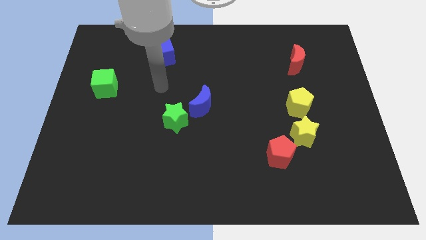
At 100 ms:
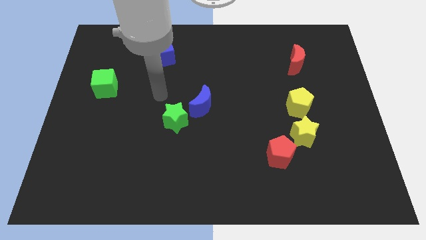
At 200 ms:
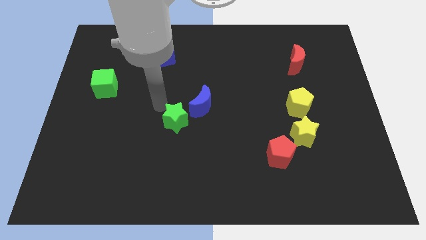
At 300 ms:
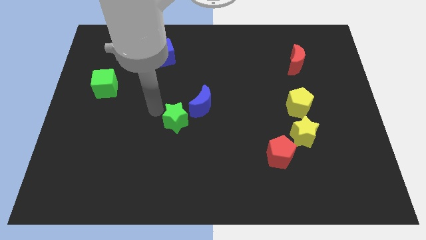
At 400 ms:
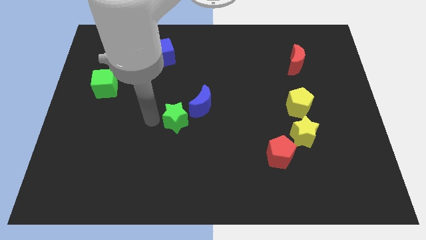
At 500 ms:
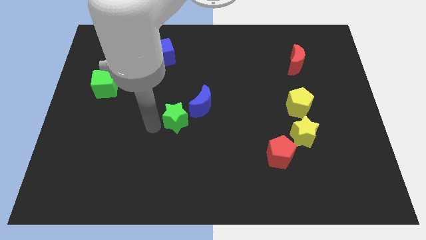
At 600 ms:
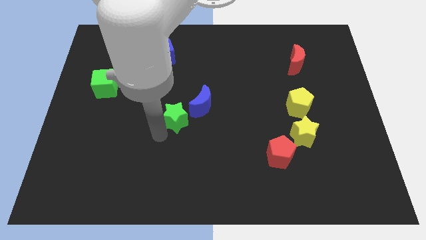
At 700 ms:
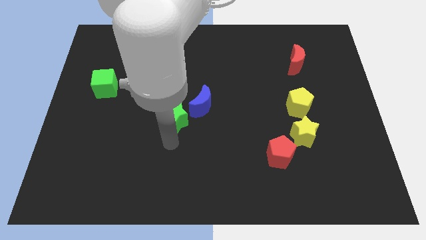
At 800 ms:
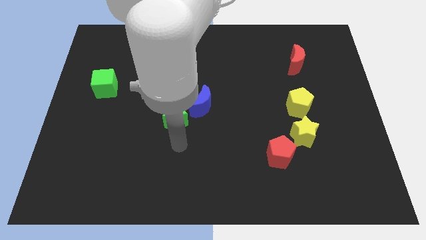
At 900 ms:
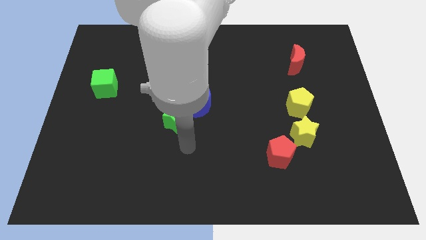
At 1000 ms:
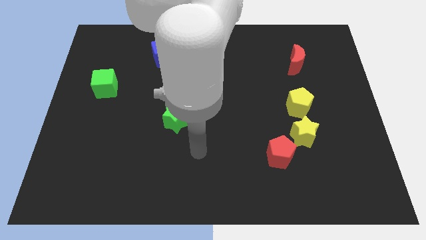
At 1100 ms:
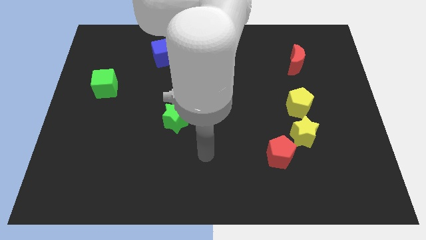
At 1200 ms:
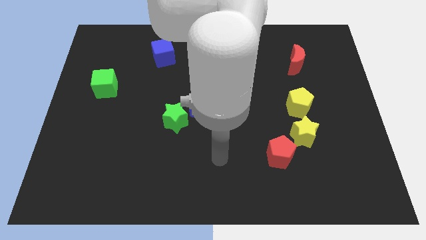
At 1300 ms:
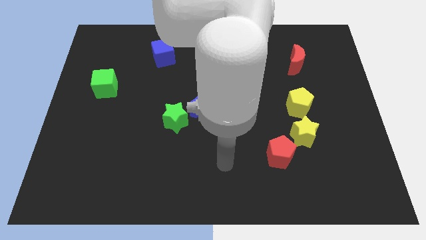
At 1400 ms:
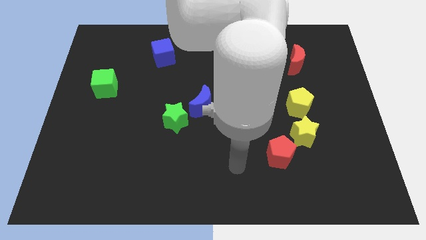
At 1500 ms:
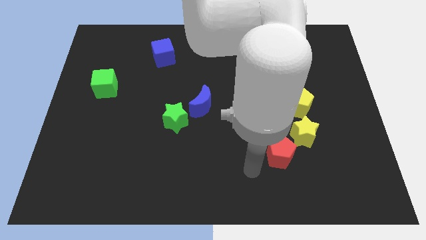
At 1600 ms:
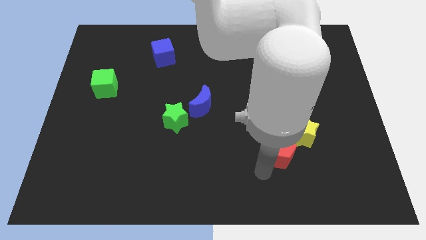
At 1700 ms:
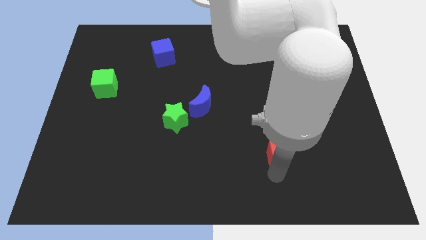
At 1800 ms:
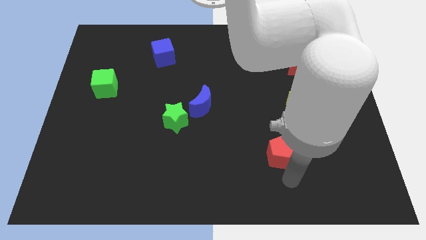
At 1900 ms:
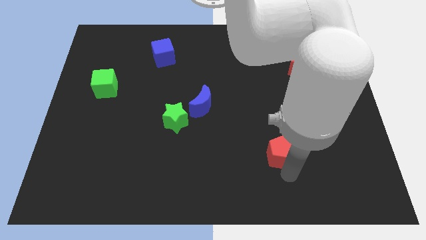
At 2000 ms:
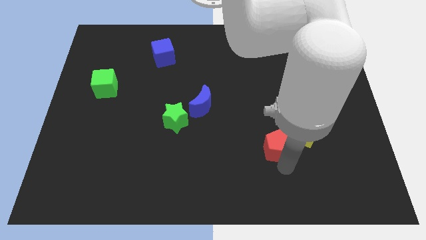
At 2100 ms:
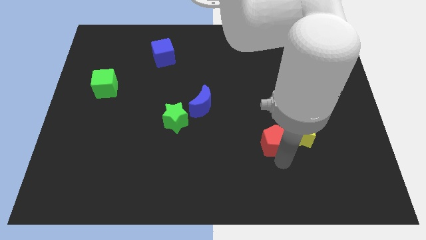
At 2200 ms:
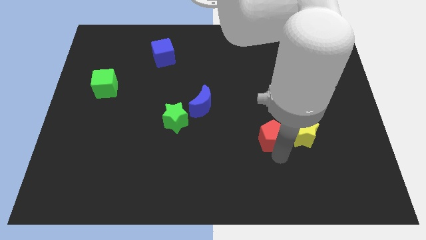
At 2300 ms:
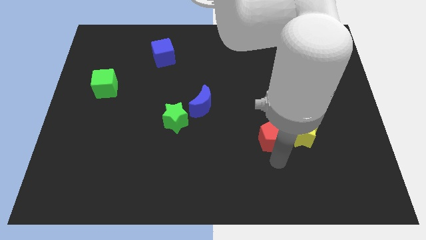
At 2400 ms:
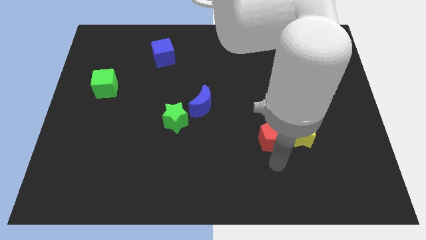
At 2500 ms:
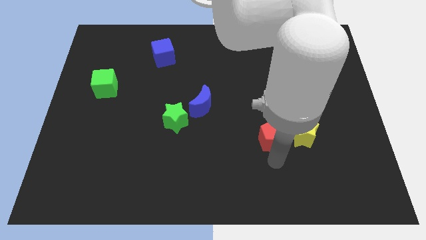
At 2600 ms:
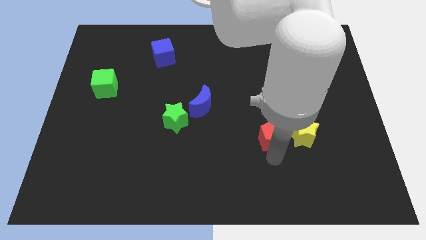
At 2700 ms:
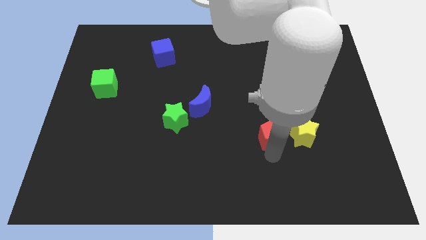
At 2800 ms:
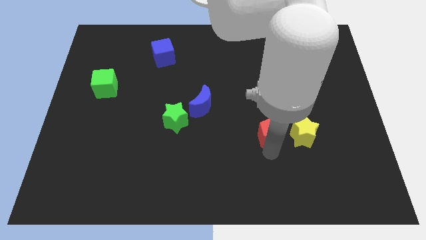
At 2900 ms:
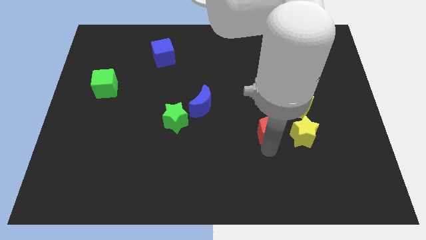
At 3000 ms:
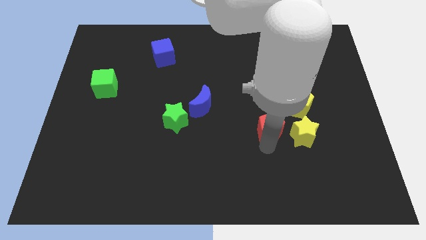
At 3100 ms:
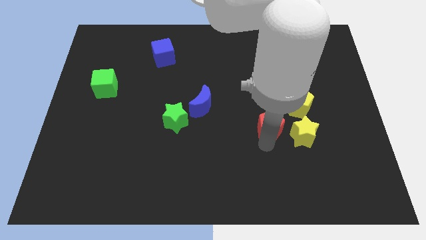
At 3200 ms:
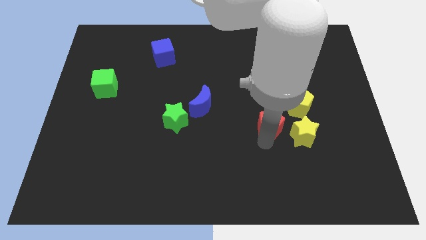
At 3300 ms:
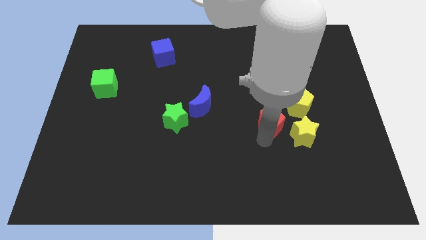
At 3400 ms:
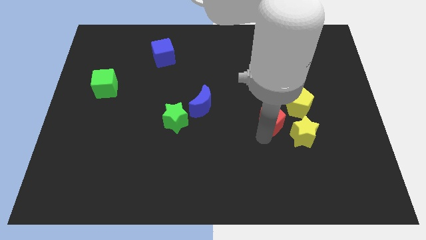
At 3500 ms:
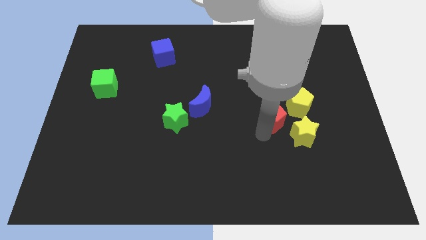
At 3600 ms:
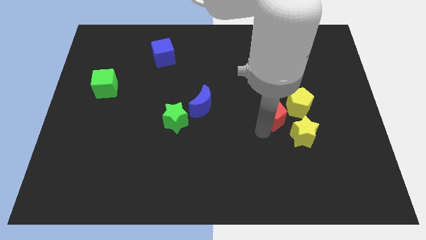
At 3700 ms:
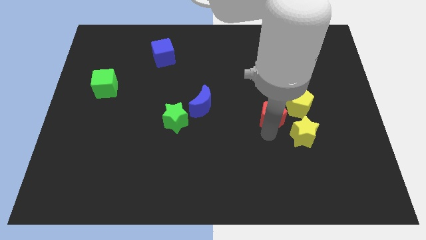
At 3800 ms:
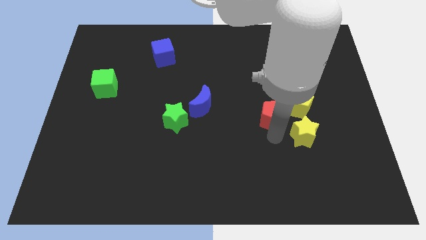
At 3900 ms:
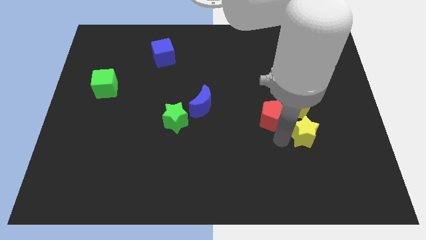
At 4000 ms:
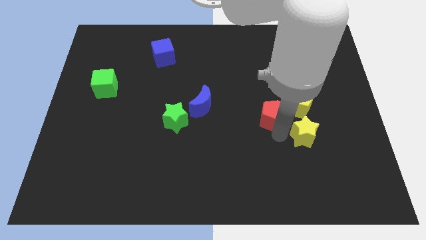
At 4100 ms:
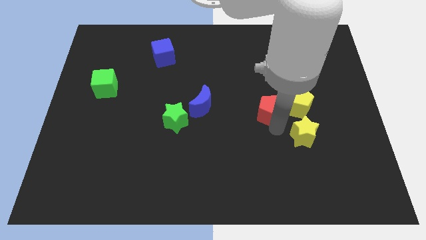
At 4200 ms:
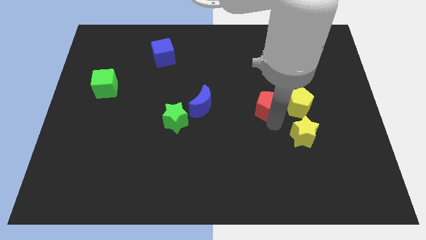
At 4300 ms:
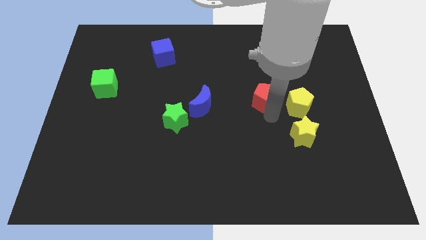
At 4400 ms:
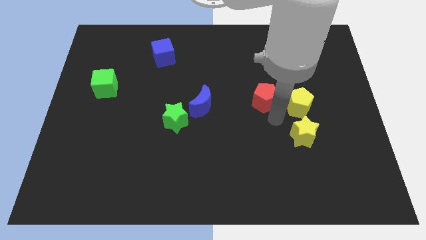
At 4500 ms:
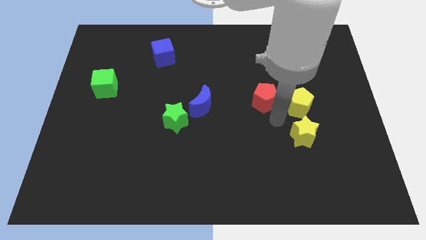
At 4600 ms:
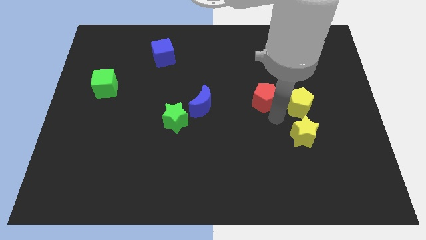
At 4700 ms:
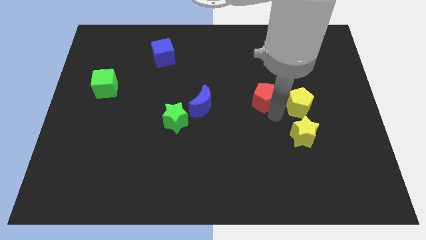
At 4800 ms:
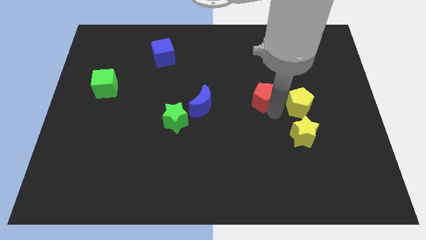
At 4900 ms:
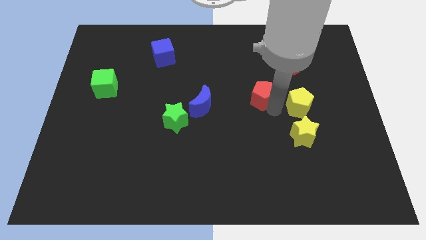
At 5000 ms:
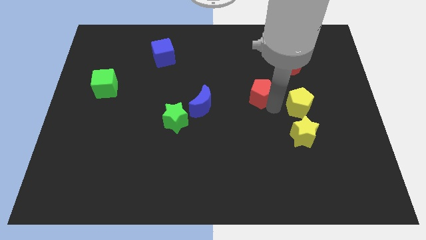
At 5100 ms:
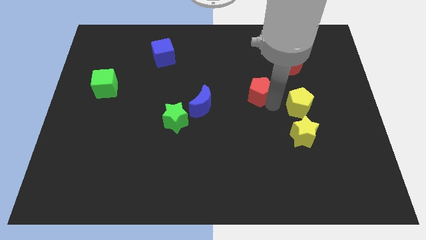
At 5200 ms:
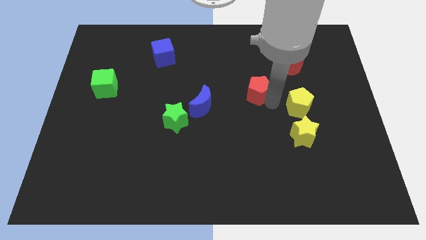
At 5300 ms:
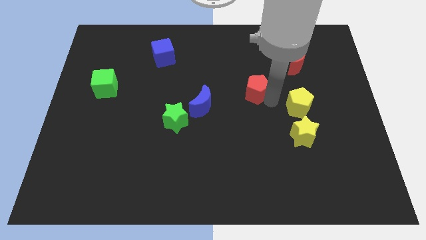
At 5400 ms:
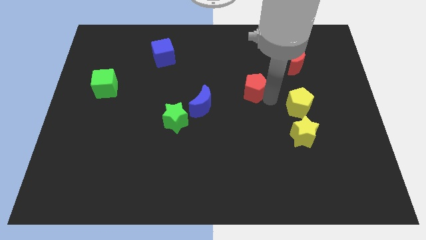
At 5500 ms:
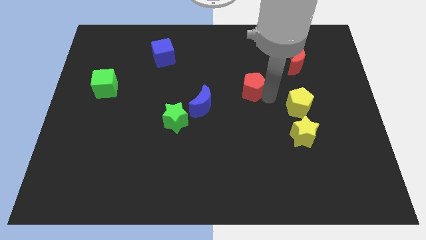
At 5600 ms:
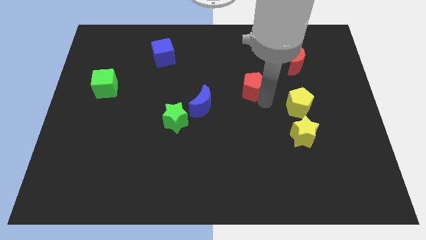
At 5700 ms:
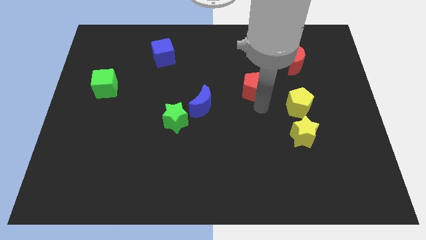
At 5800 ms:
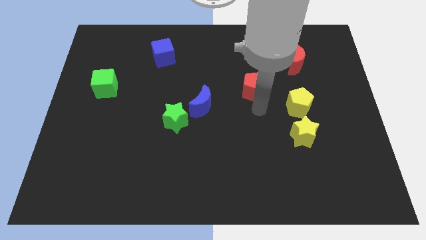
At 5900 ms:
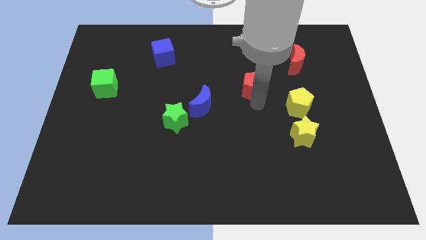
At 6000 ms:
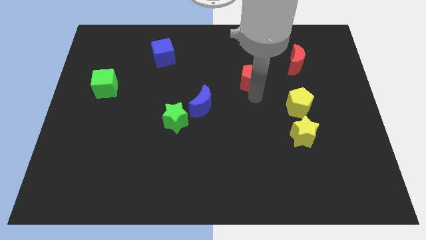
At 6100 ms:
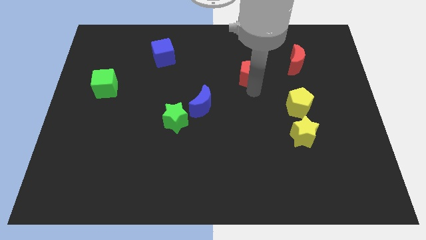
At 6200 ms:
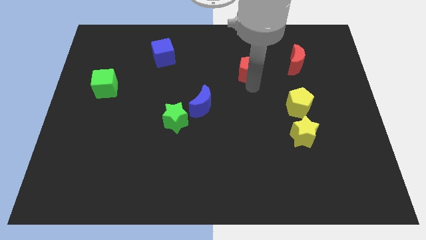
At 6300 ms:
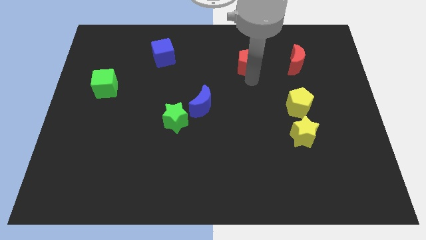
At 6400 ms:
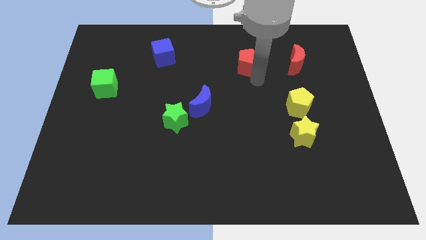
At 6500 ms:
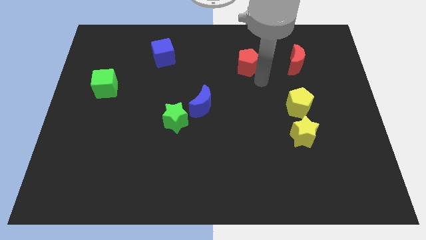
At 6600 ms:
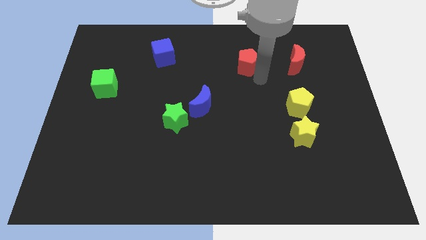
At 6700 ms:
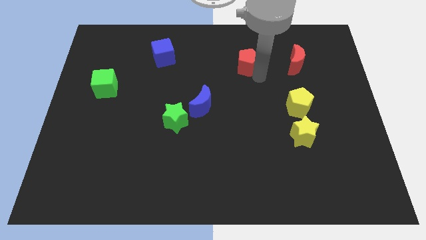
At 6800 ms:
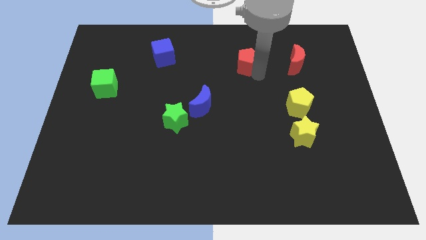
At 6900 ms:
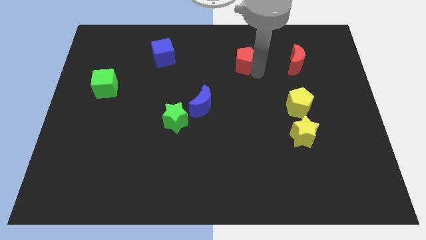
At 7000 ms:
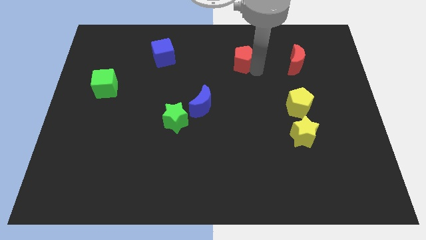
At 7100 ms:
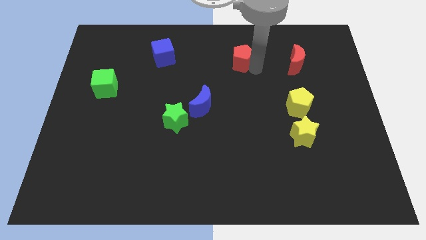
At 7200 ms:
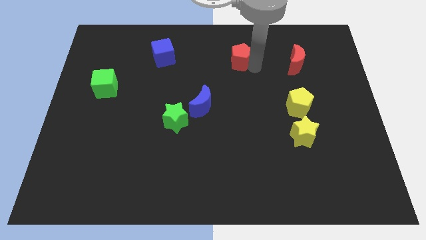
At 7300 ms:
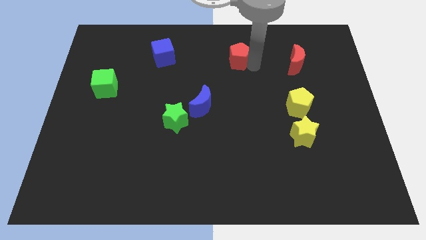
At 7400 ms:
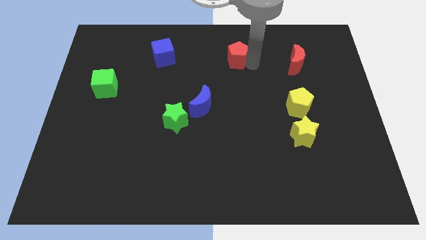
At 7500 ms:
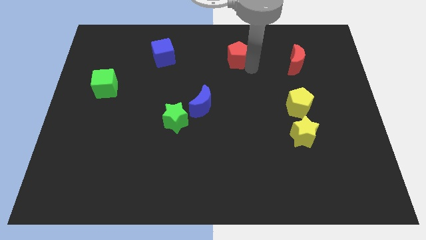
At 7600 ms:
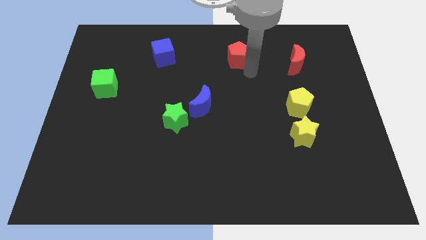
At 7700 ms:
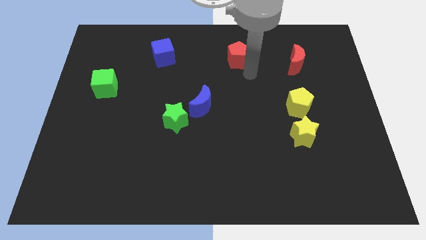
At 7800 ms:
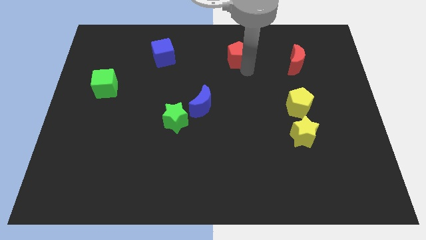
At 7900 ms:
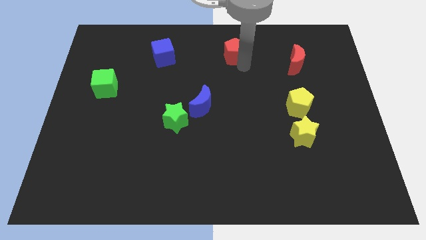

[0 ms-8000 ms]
push the red pentagon to the towards your base
